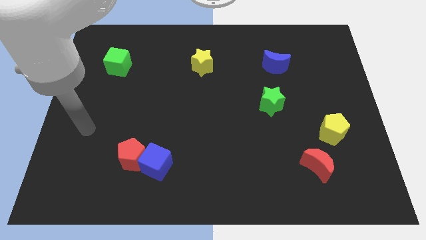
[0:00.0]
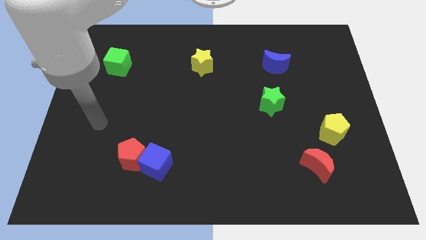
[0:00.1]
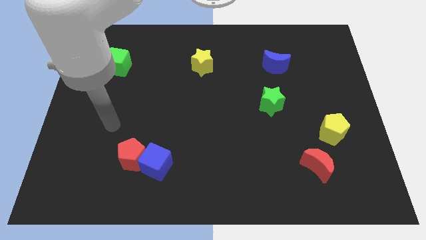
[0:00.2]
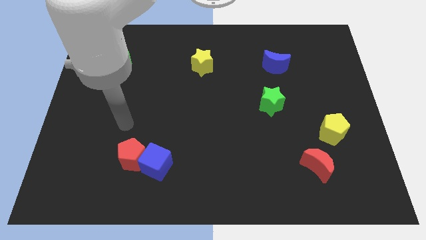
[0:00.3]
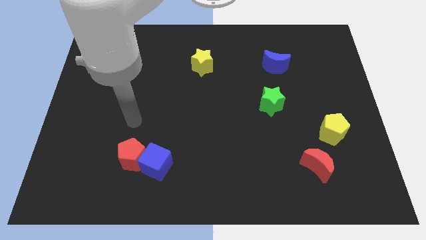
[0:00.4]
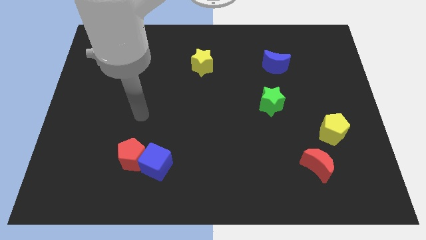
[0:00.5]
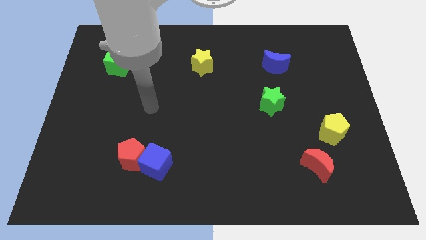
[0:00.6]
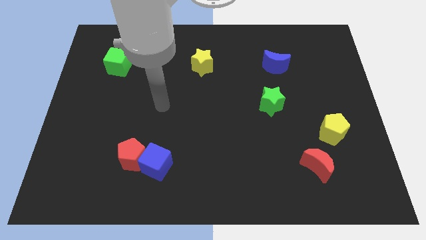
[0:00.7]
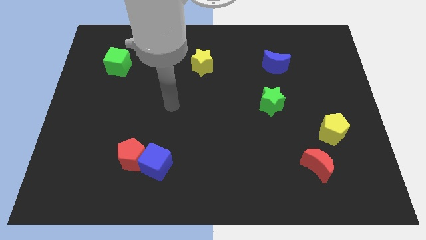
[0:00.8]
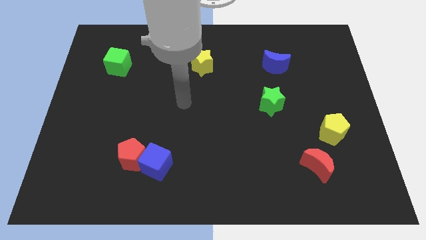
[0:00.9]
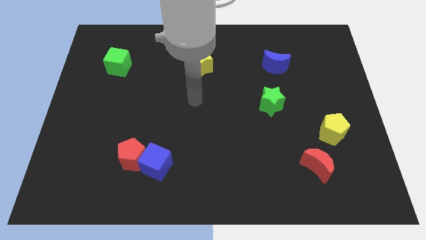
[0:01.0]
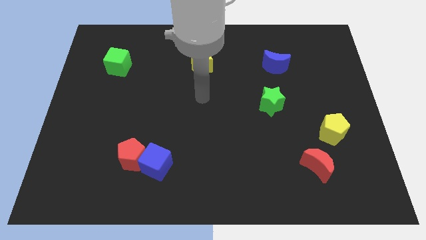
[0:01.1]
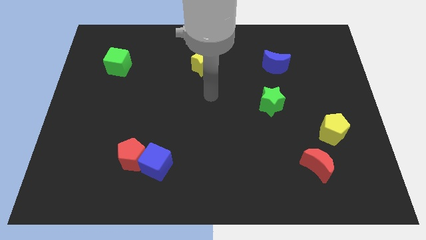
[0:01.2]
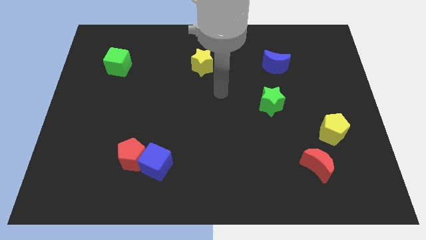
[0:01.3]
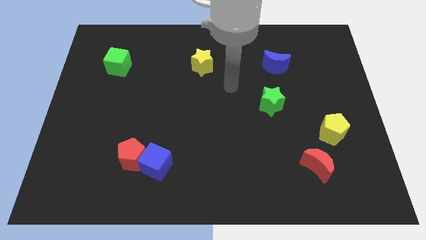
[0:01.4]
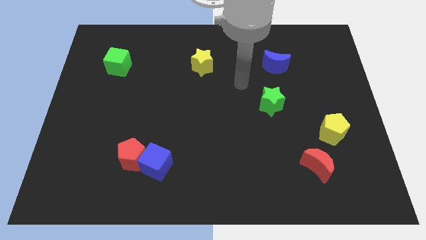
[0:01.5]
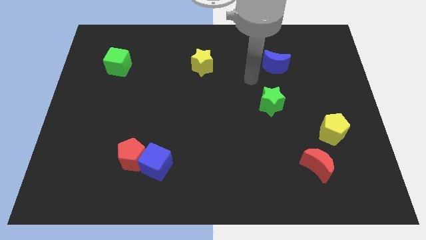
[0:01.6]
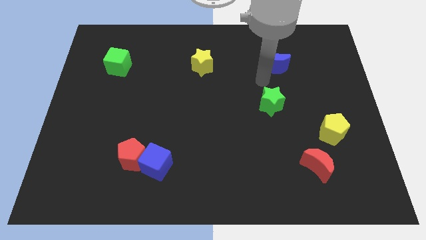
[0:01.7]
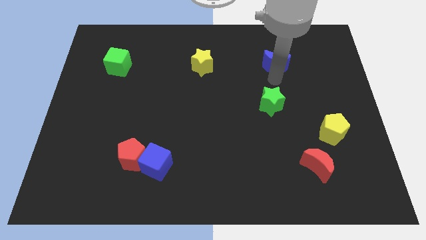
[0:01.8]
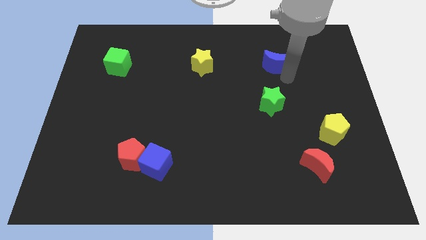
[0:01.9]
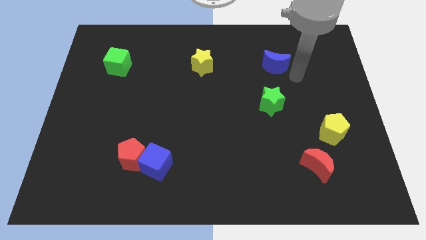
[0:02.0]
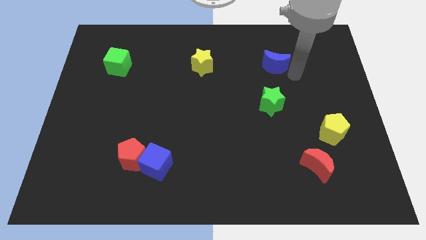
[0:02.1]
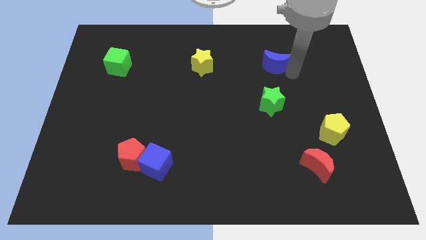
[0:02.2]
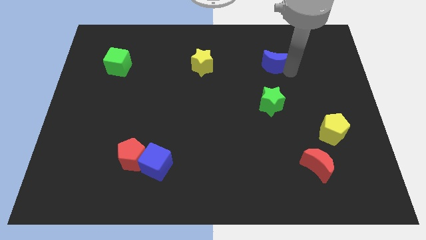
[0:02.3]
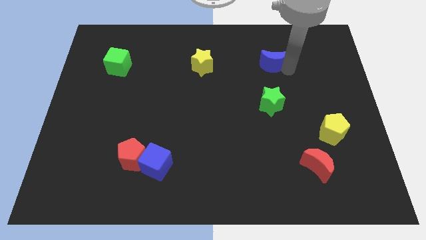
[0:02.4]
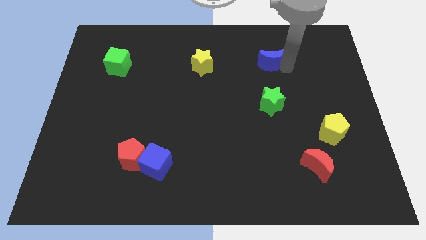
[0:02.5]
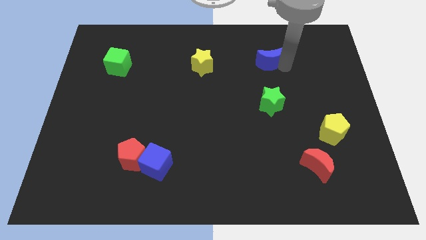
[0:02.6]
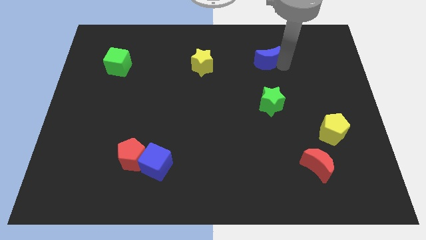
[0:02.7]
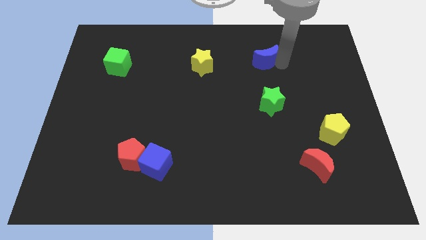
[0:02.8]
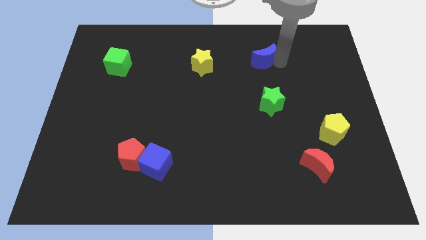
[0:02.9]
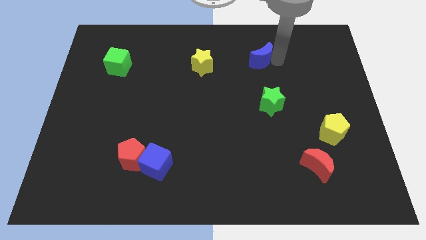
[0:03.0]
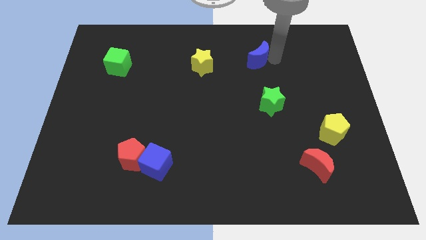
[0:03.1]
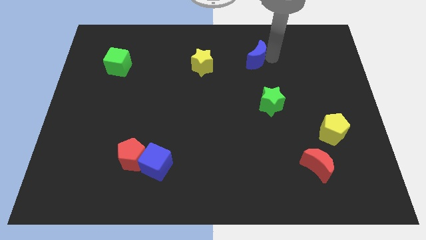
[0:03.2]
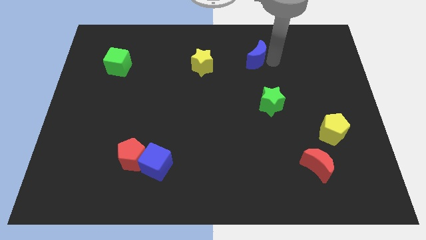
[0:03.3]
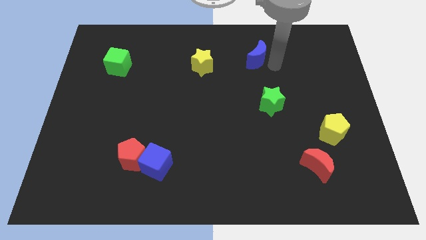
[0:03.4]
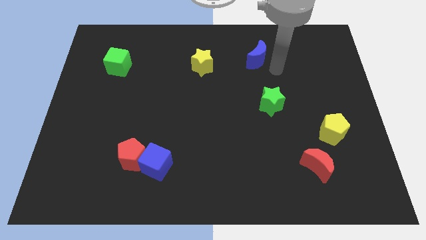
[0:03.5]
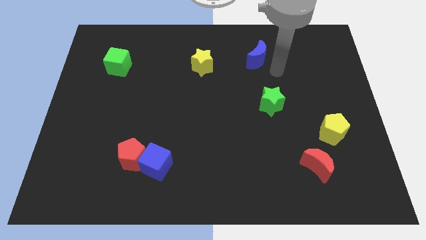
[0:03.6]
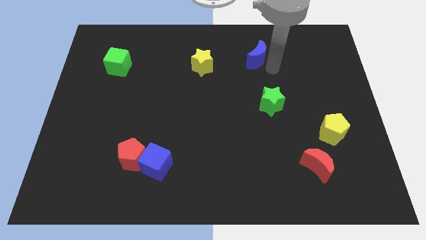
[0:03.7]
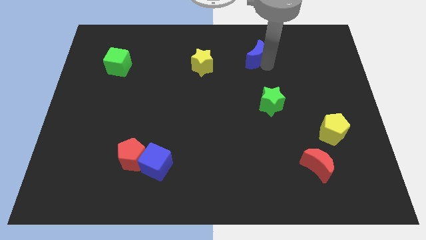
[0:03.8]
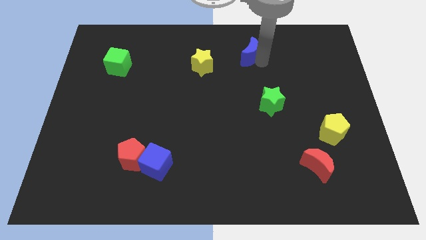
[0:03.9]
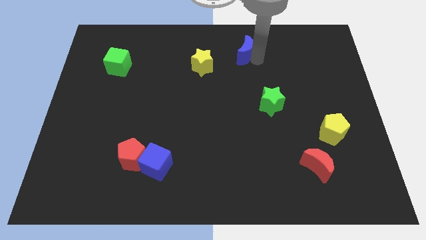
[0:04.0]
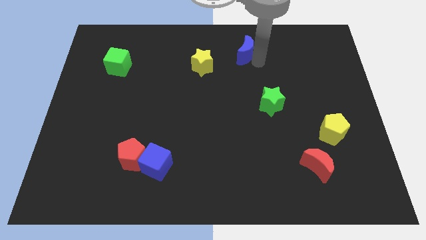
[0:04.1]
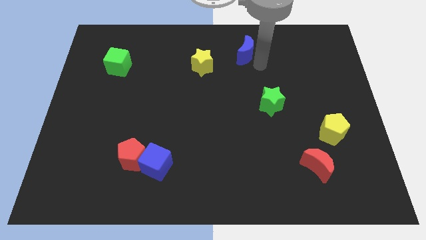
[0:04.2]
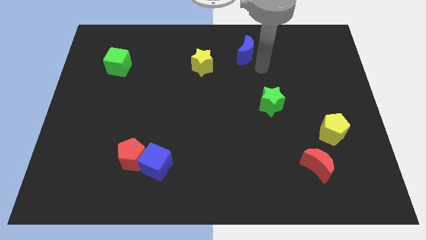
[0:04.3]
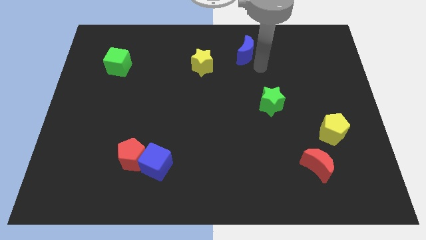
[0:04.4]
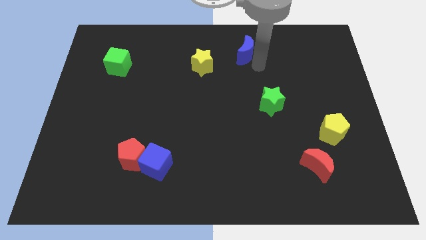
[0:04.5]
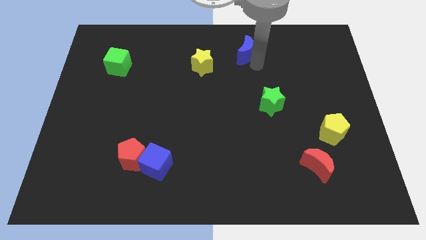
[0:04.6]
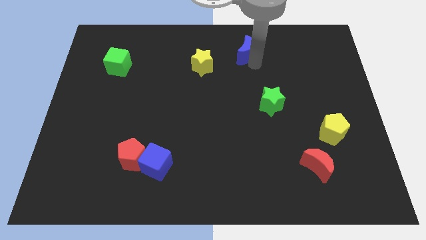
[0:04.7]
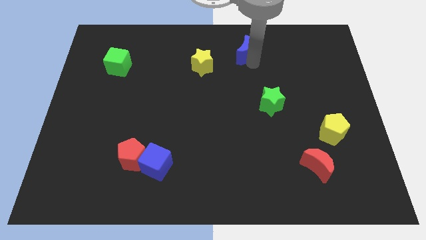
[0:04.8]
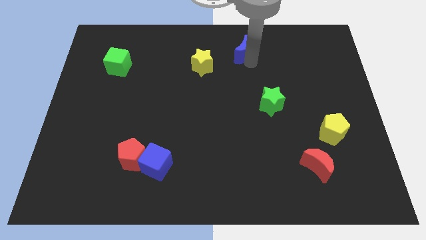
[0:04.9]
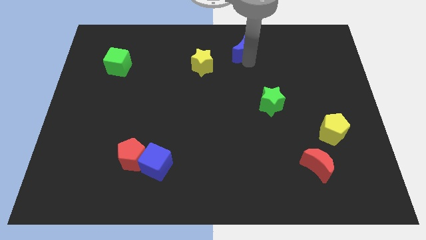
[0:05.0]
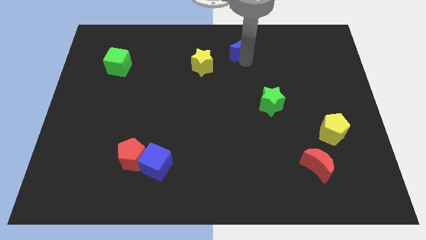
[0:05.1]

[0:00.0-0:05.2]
push the blue moon to the top side
